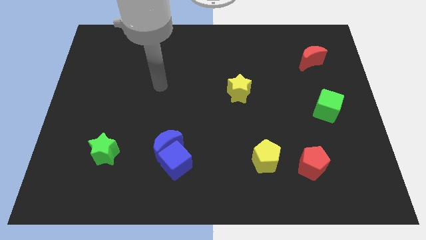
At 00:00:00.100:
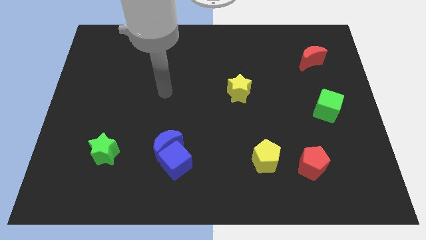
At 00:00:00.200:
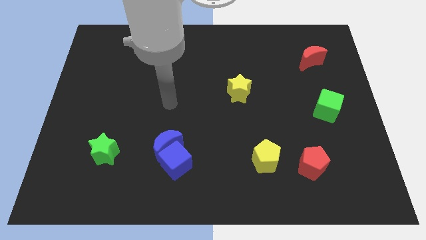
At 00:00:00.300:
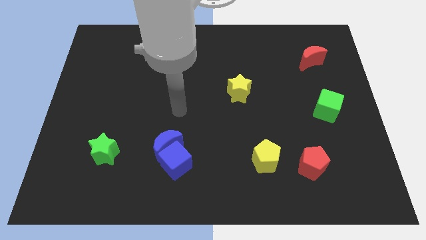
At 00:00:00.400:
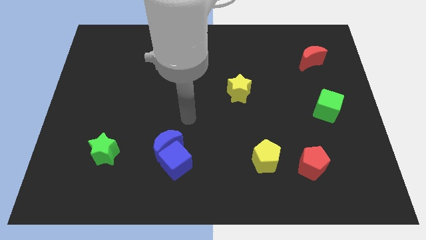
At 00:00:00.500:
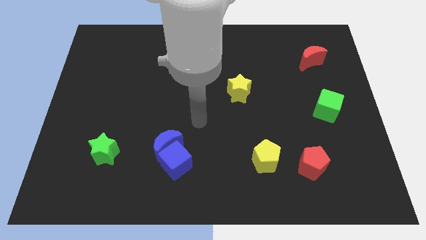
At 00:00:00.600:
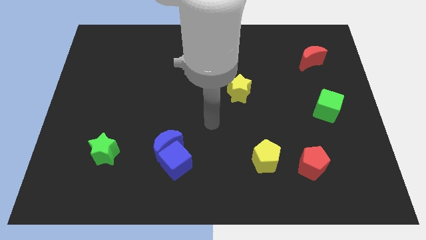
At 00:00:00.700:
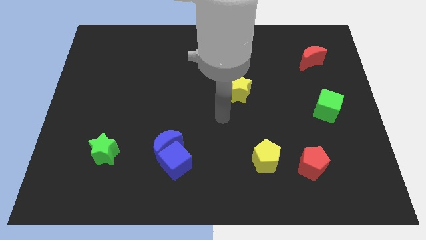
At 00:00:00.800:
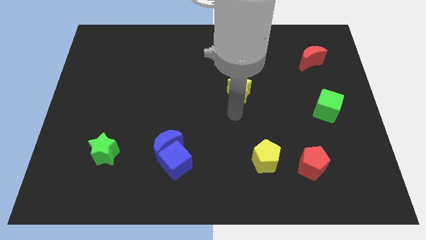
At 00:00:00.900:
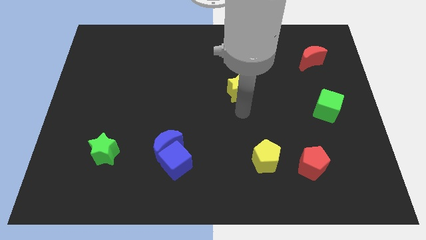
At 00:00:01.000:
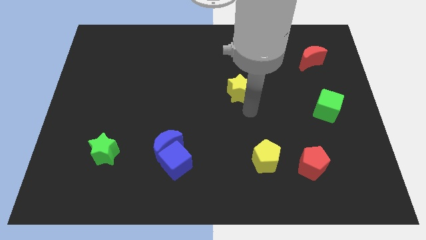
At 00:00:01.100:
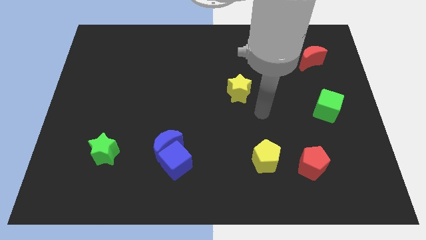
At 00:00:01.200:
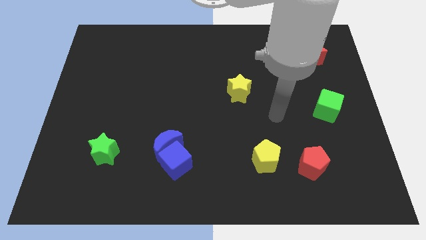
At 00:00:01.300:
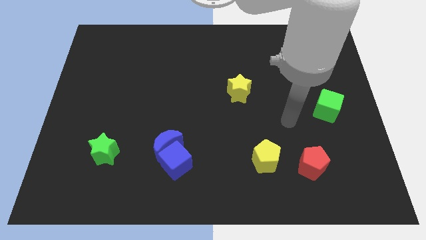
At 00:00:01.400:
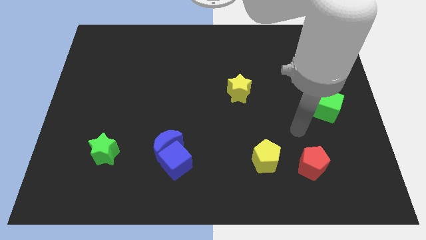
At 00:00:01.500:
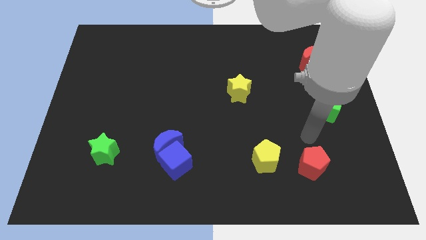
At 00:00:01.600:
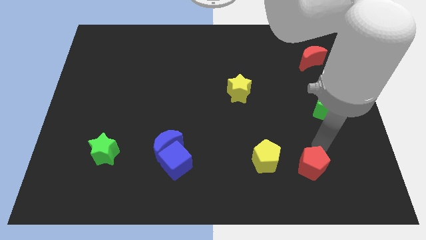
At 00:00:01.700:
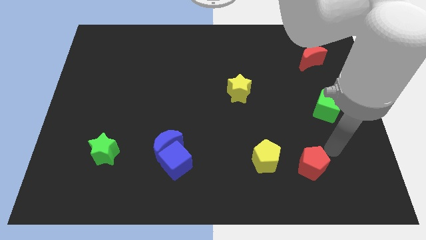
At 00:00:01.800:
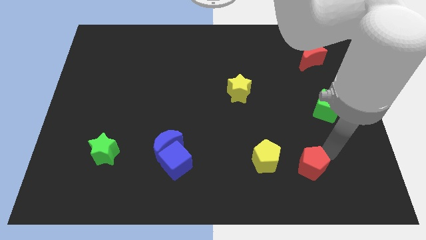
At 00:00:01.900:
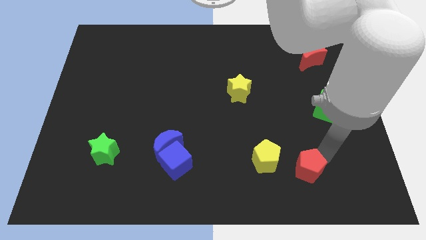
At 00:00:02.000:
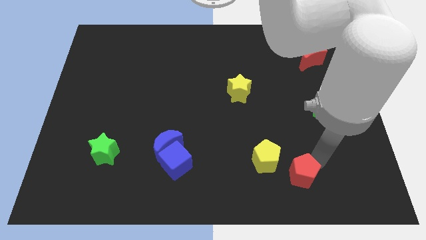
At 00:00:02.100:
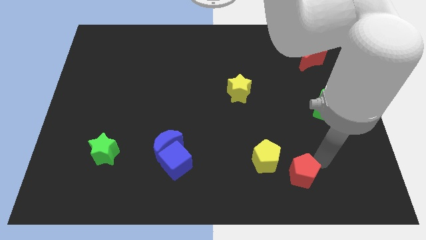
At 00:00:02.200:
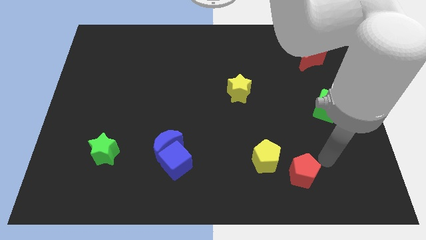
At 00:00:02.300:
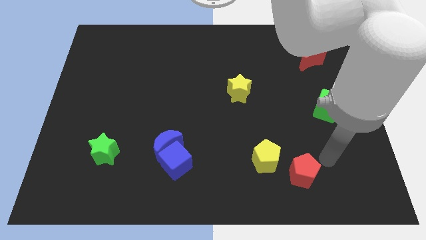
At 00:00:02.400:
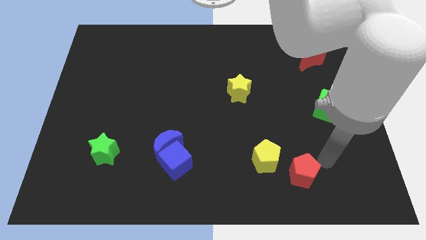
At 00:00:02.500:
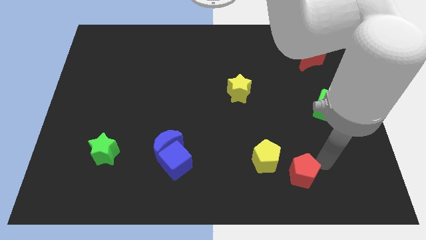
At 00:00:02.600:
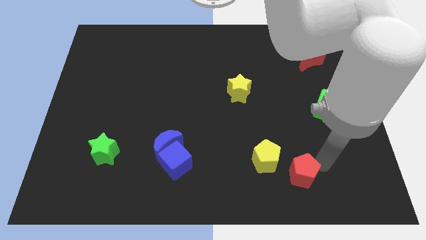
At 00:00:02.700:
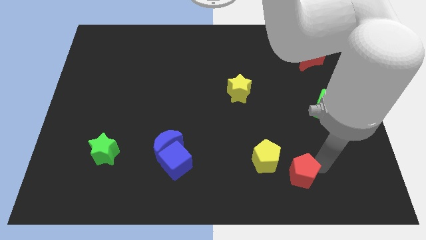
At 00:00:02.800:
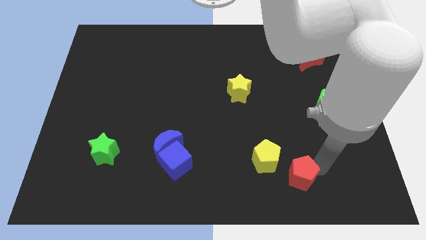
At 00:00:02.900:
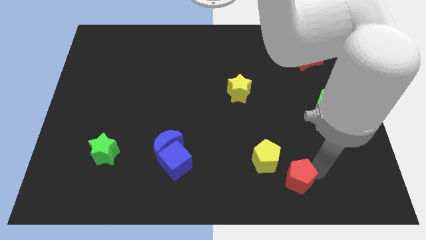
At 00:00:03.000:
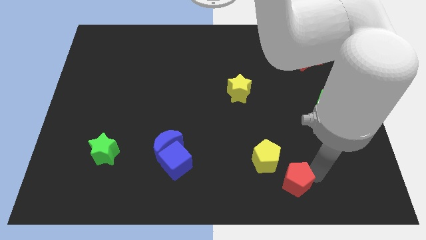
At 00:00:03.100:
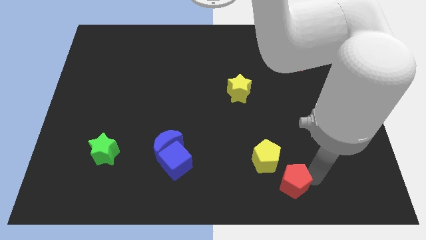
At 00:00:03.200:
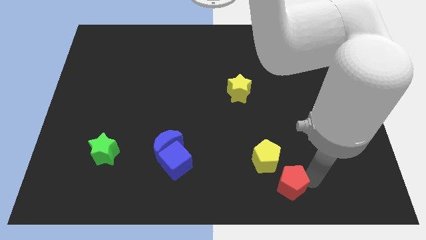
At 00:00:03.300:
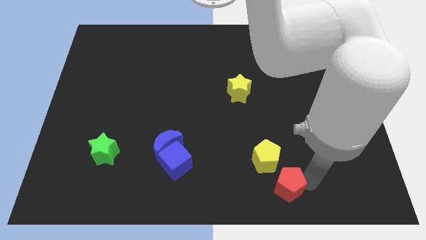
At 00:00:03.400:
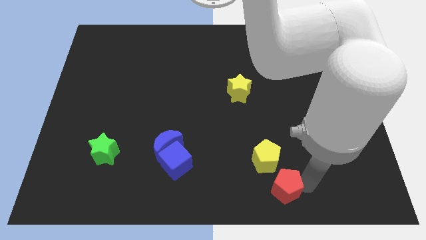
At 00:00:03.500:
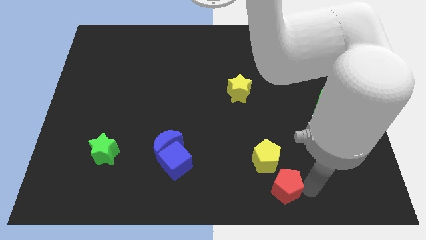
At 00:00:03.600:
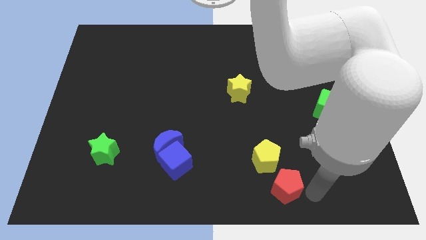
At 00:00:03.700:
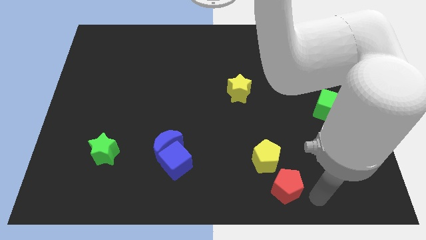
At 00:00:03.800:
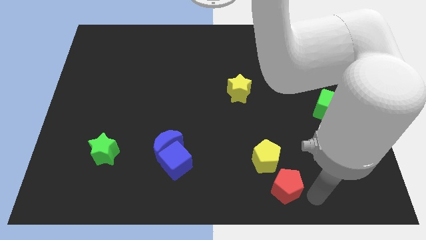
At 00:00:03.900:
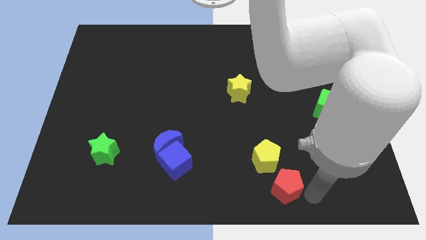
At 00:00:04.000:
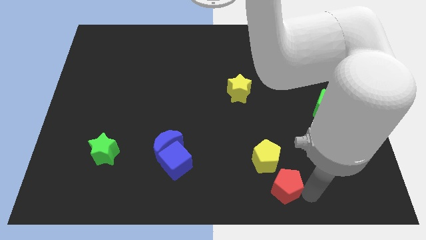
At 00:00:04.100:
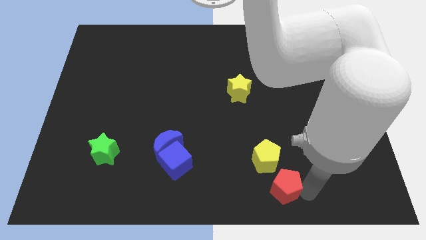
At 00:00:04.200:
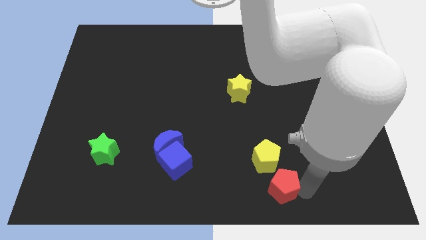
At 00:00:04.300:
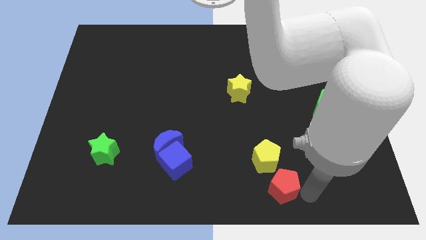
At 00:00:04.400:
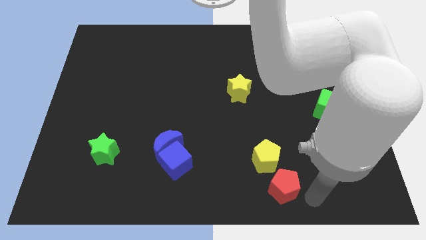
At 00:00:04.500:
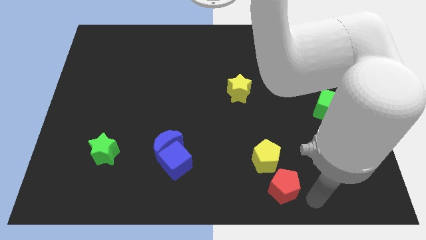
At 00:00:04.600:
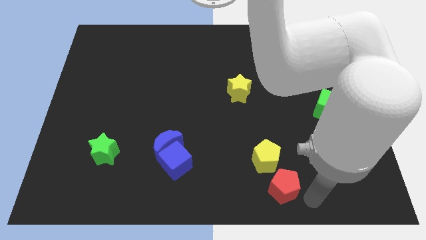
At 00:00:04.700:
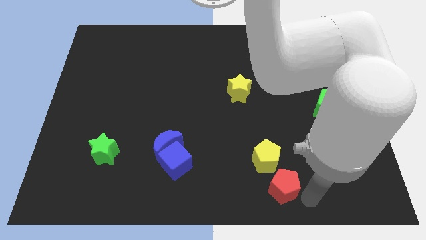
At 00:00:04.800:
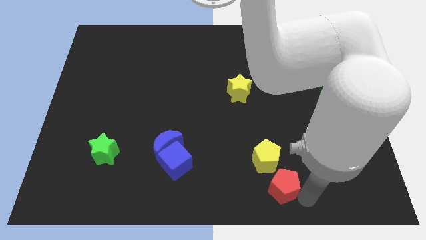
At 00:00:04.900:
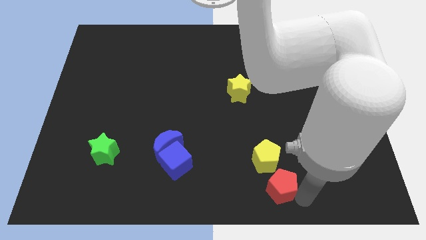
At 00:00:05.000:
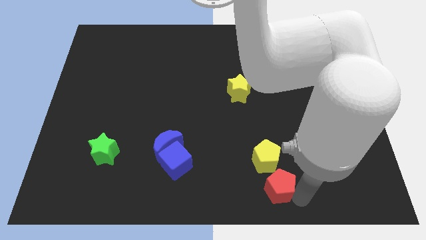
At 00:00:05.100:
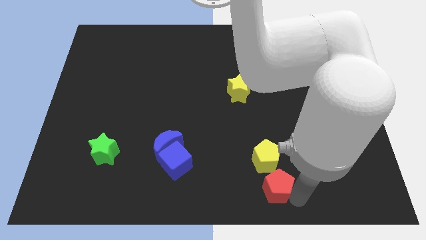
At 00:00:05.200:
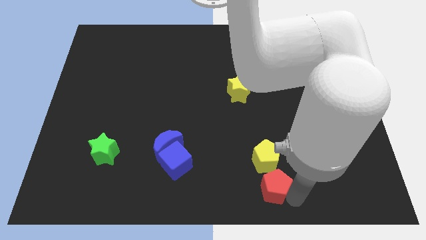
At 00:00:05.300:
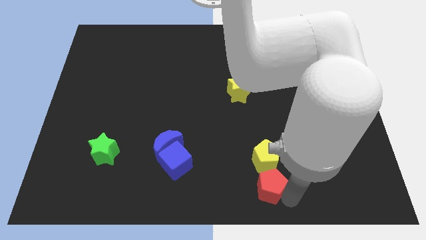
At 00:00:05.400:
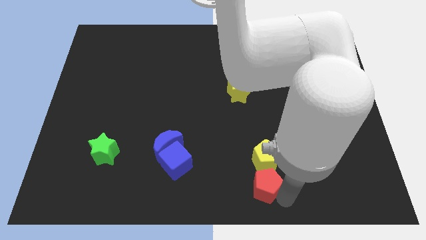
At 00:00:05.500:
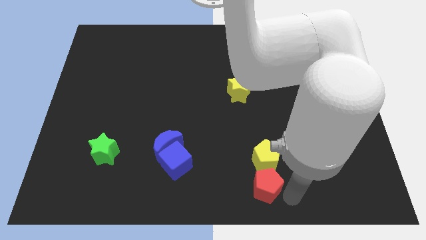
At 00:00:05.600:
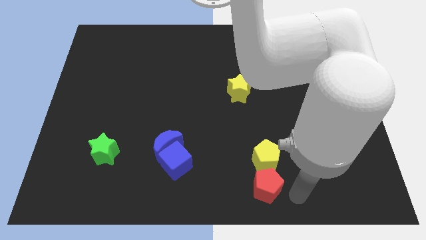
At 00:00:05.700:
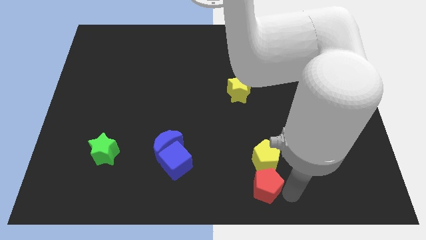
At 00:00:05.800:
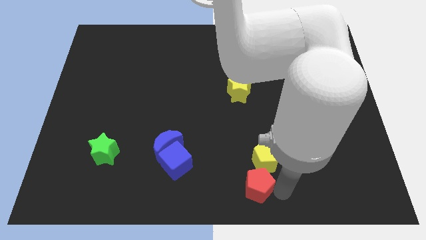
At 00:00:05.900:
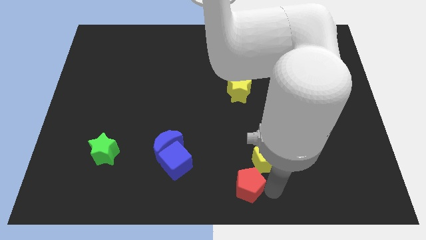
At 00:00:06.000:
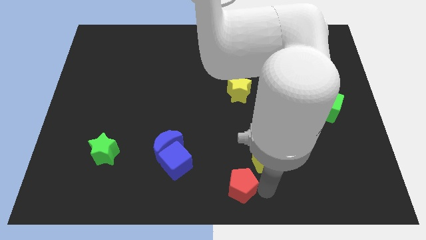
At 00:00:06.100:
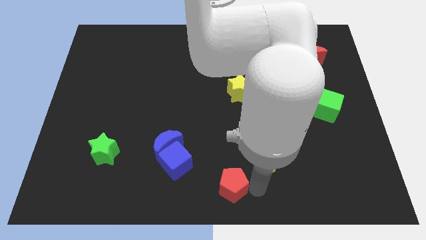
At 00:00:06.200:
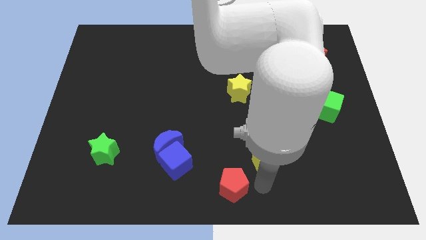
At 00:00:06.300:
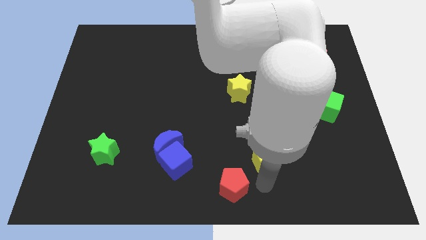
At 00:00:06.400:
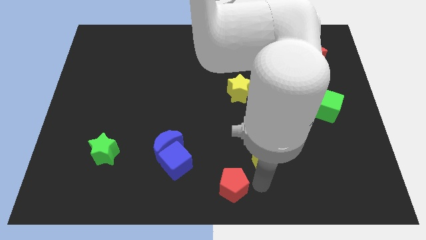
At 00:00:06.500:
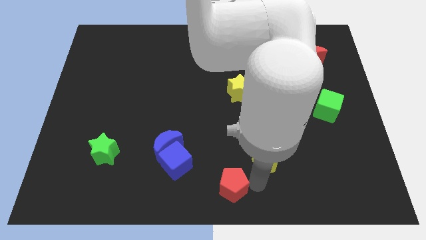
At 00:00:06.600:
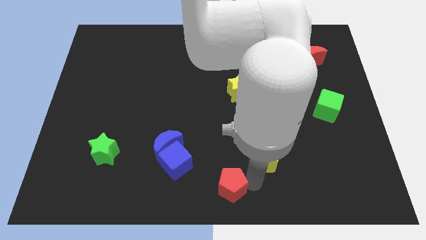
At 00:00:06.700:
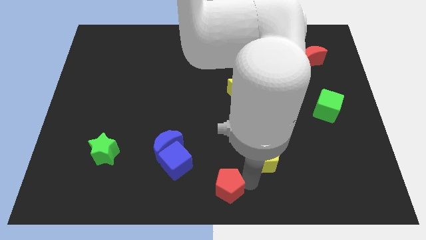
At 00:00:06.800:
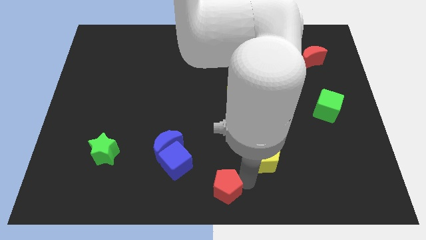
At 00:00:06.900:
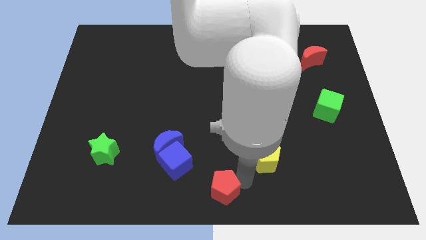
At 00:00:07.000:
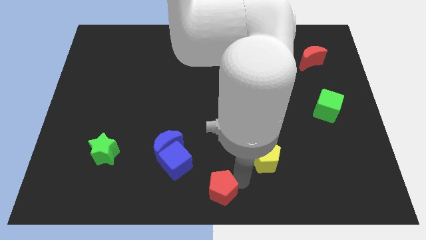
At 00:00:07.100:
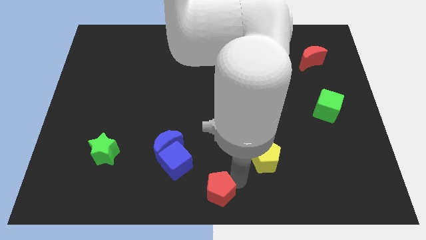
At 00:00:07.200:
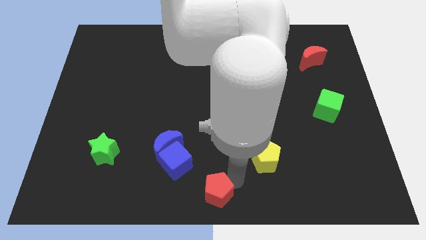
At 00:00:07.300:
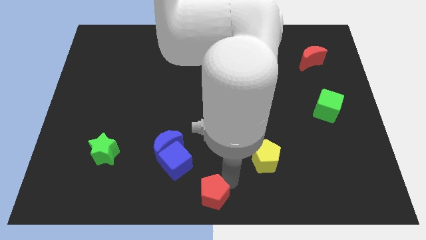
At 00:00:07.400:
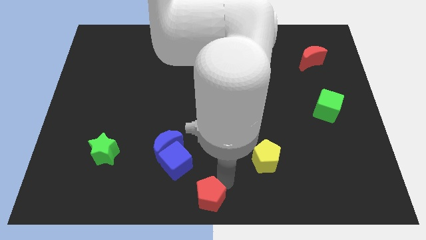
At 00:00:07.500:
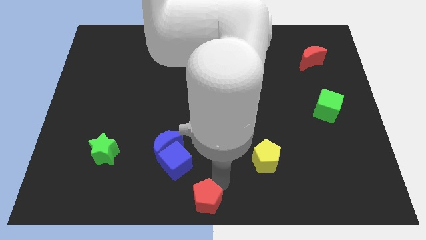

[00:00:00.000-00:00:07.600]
push the red pentagon to the left
